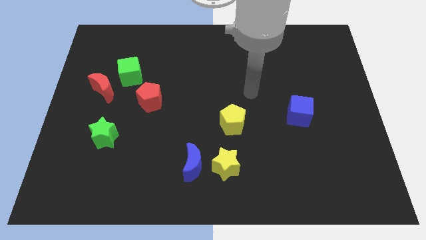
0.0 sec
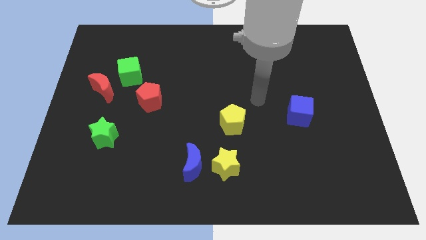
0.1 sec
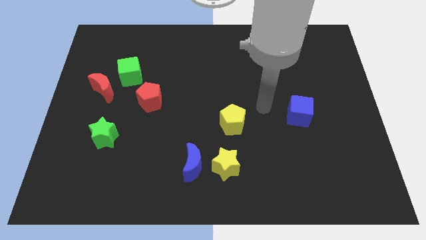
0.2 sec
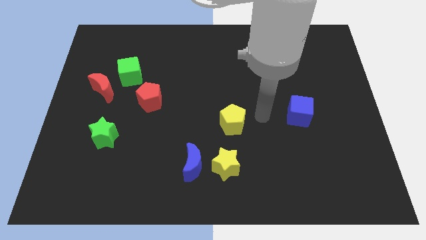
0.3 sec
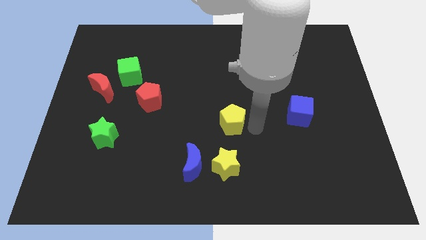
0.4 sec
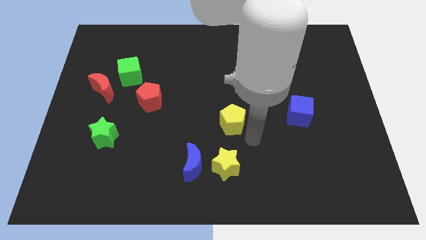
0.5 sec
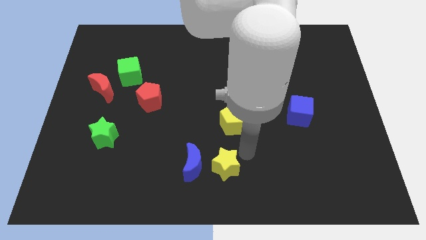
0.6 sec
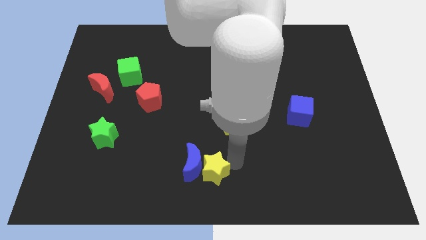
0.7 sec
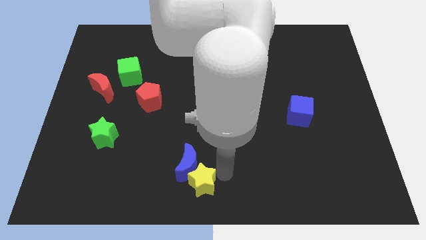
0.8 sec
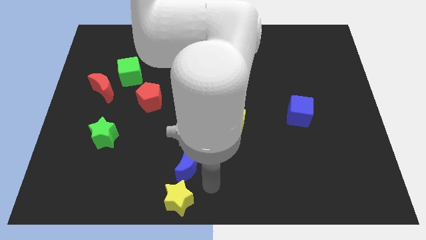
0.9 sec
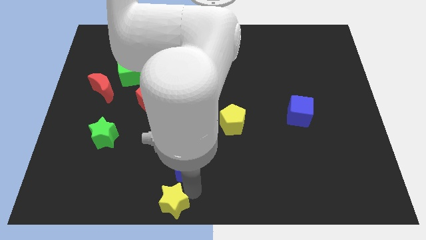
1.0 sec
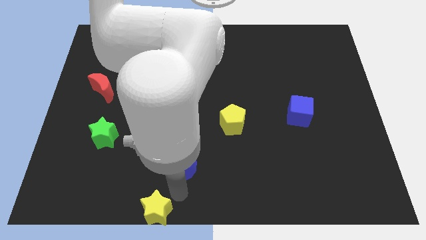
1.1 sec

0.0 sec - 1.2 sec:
separate the blue moon from the yellow star

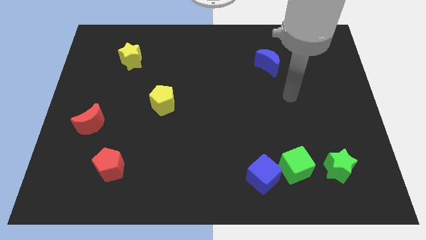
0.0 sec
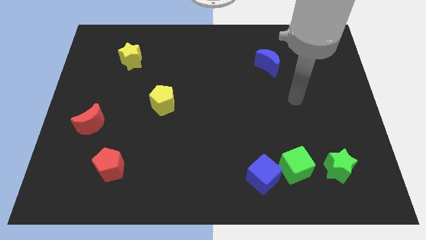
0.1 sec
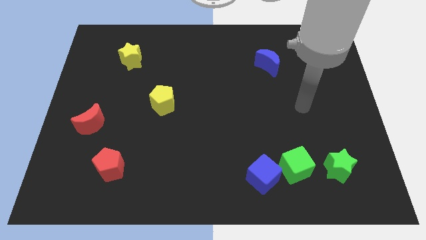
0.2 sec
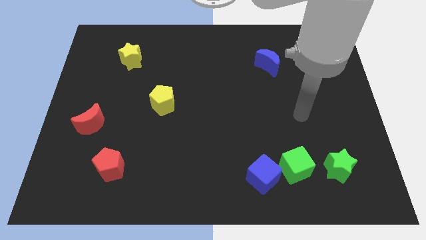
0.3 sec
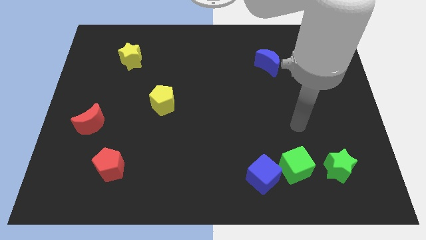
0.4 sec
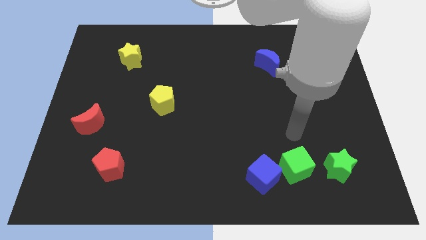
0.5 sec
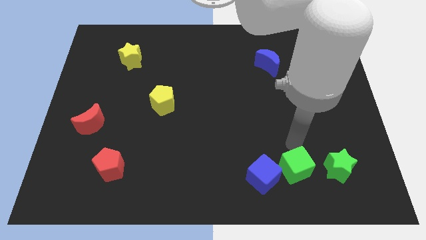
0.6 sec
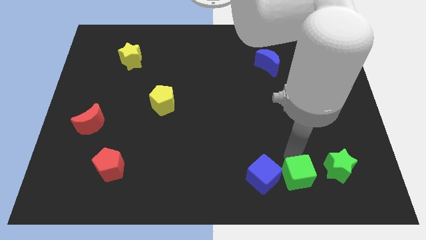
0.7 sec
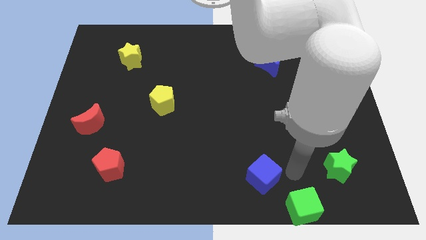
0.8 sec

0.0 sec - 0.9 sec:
pull the blue cube apart from the green cube

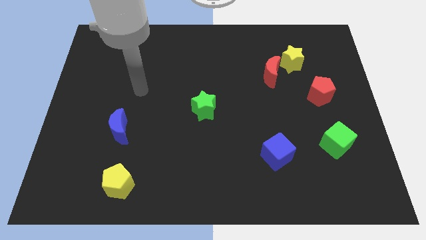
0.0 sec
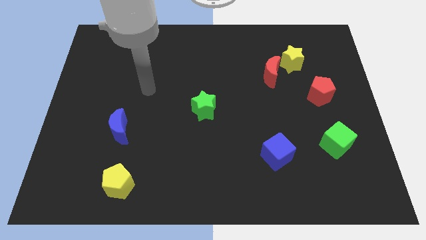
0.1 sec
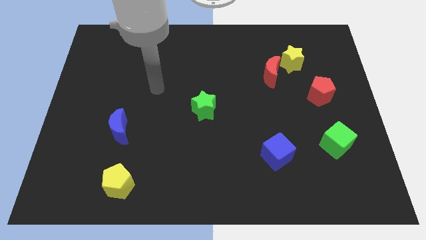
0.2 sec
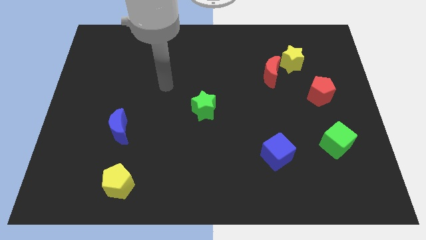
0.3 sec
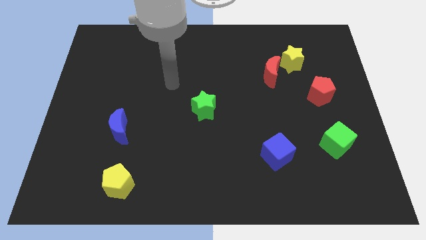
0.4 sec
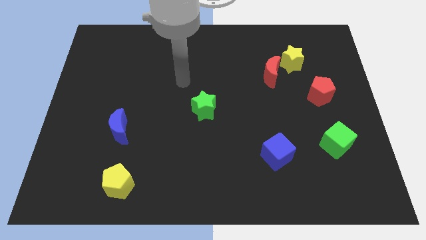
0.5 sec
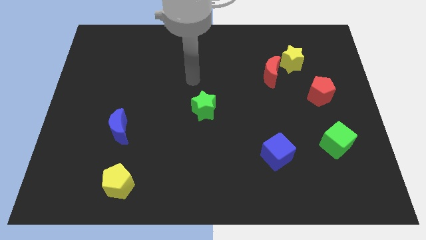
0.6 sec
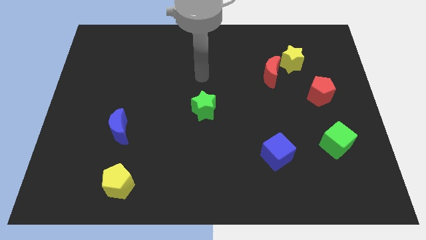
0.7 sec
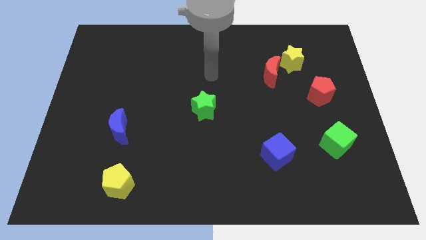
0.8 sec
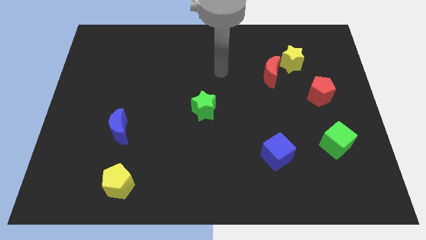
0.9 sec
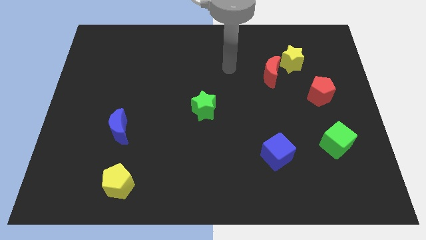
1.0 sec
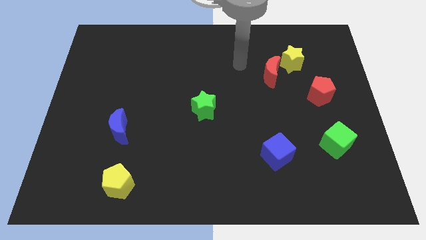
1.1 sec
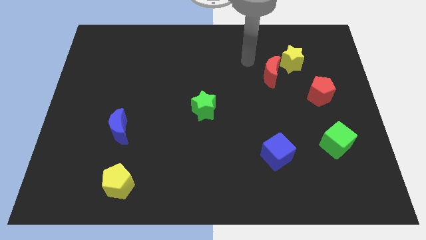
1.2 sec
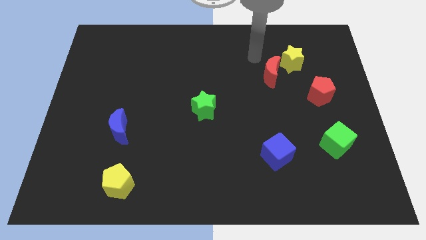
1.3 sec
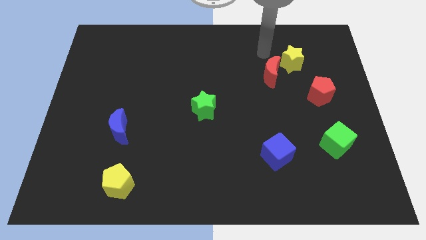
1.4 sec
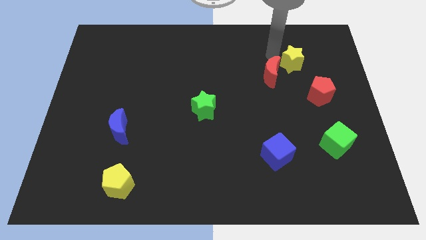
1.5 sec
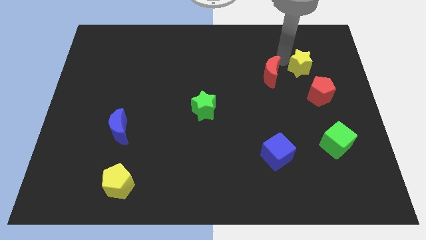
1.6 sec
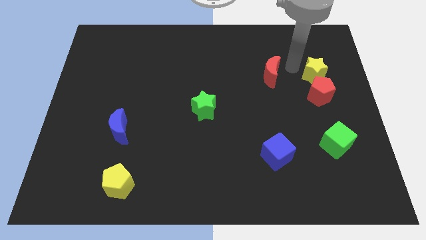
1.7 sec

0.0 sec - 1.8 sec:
pull the red moon apart from the yellow star

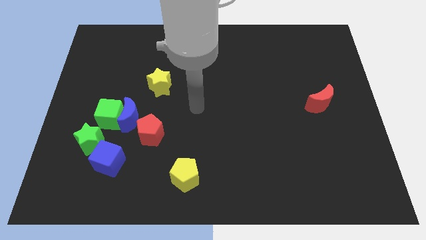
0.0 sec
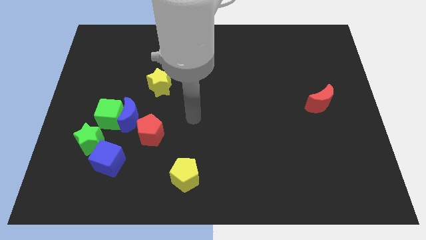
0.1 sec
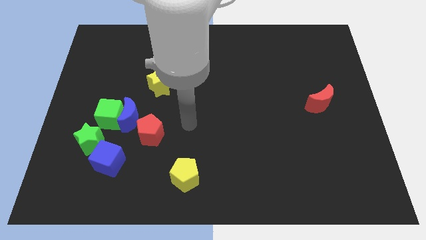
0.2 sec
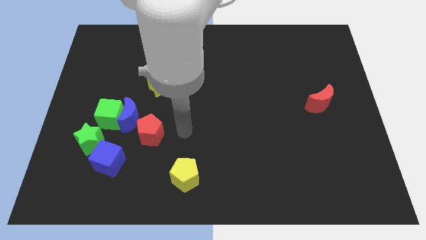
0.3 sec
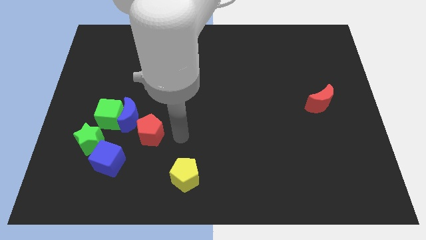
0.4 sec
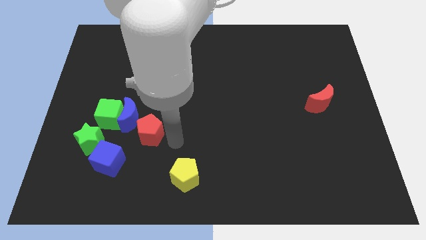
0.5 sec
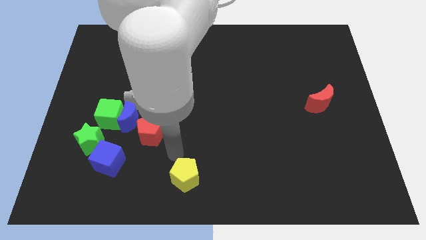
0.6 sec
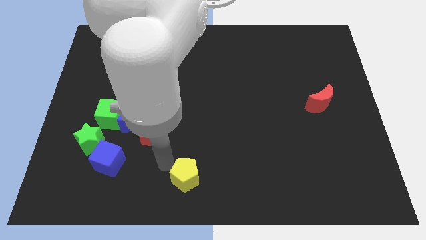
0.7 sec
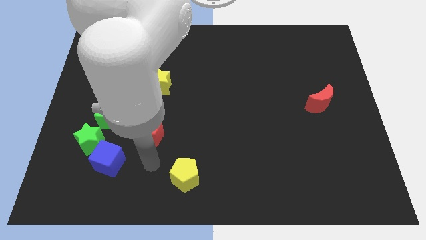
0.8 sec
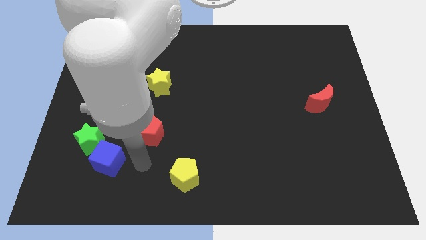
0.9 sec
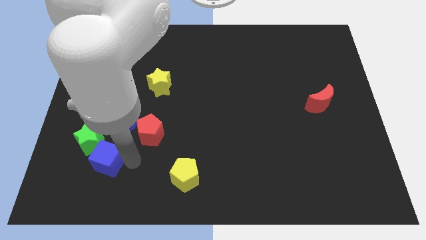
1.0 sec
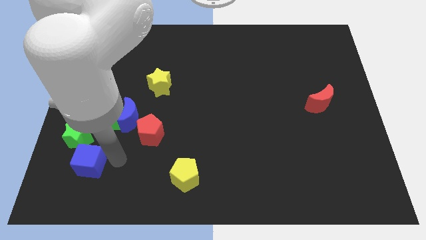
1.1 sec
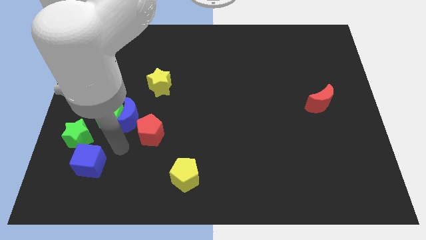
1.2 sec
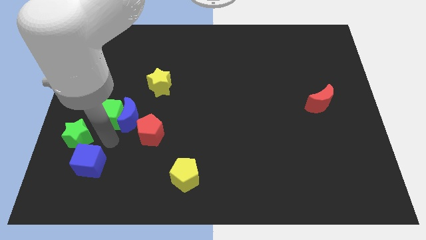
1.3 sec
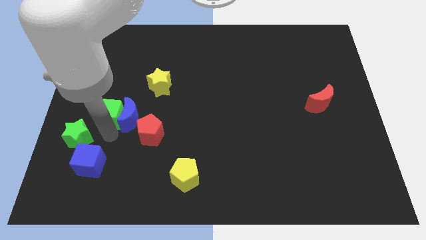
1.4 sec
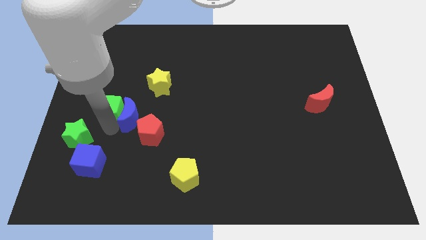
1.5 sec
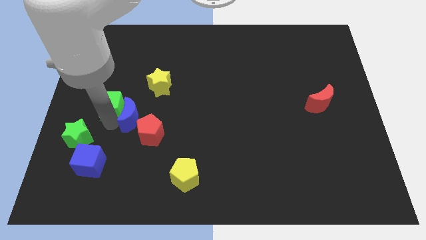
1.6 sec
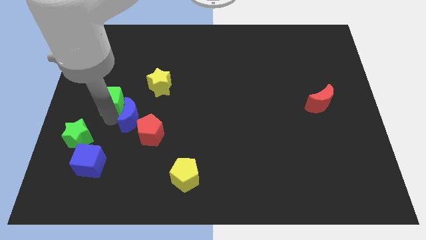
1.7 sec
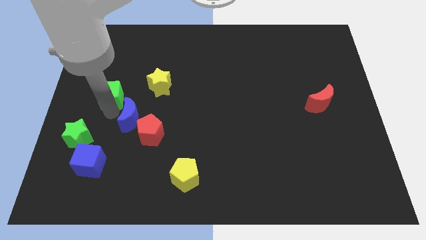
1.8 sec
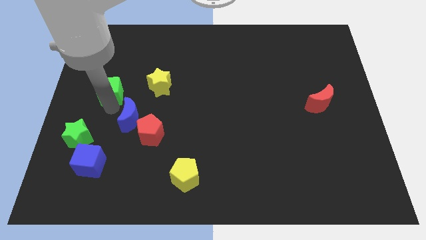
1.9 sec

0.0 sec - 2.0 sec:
move the green cube away from the blue moon and green star

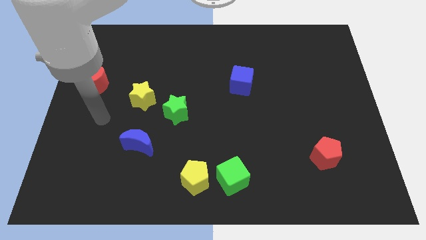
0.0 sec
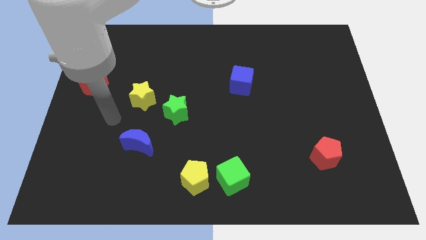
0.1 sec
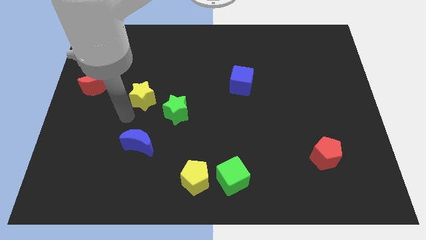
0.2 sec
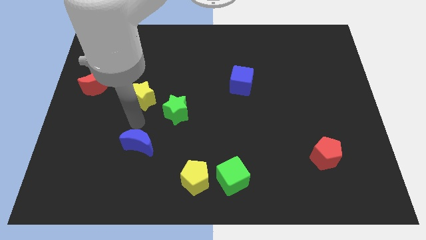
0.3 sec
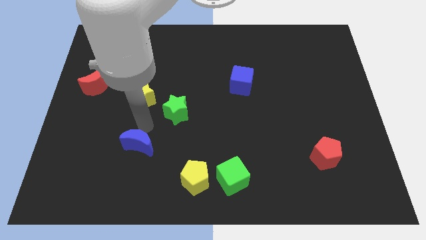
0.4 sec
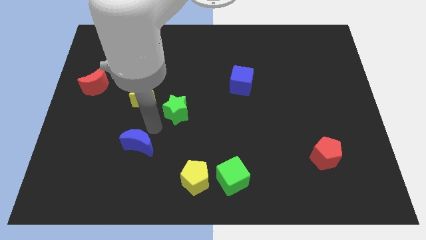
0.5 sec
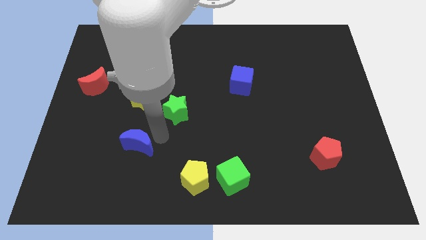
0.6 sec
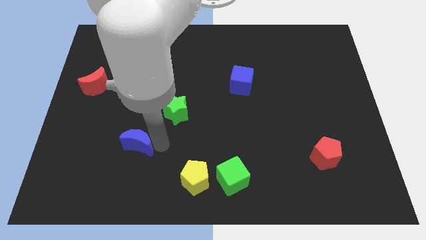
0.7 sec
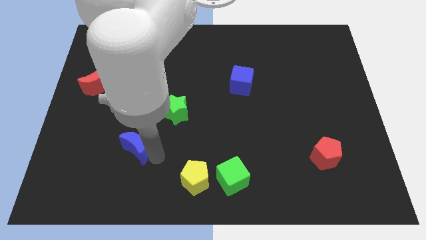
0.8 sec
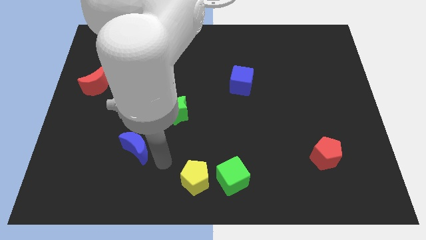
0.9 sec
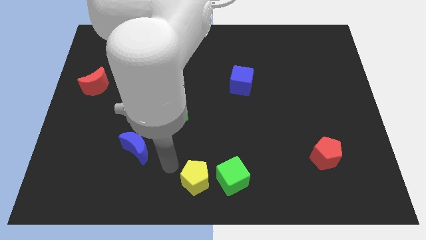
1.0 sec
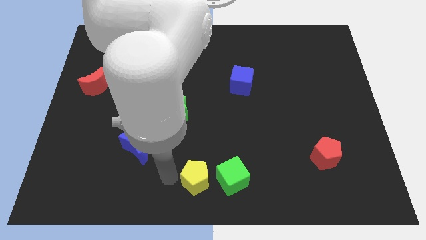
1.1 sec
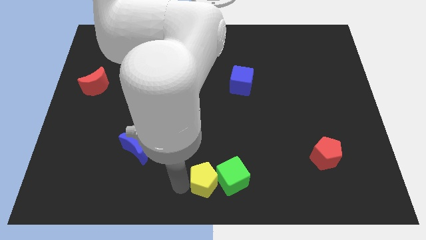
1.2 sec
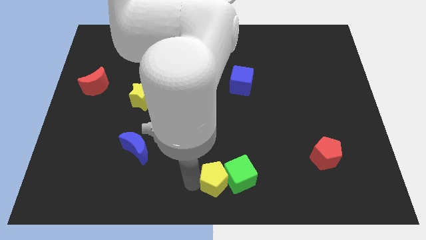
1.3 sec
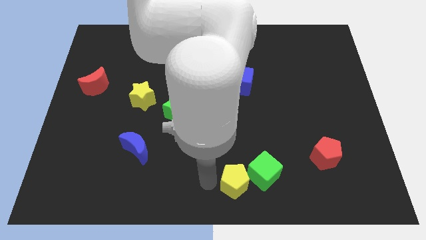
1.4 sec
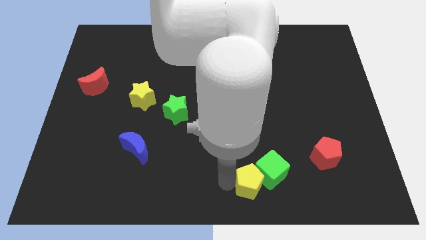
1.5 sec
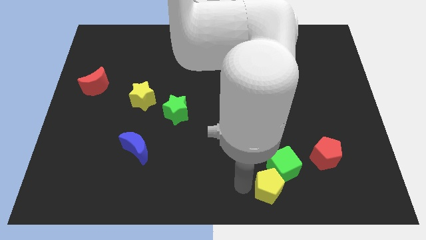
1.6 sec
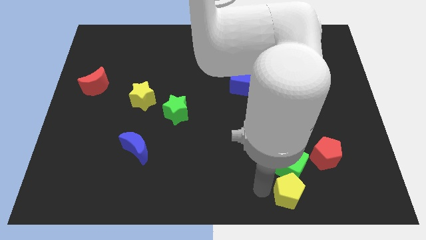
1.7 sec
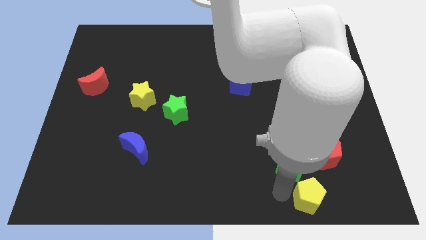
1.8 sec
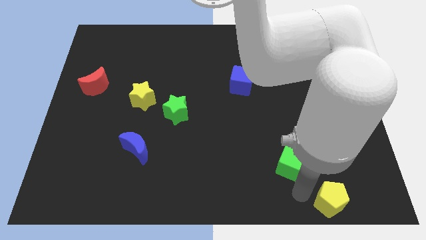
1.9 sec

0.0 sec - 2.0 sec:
move the green cube away from the yellow pentagon

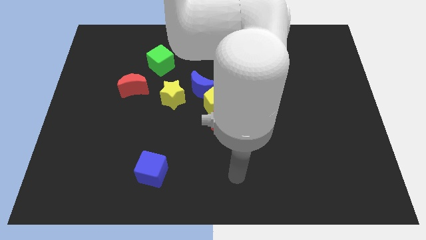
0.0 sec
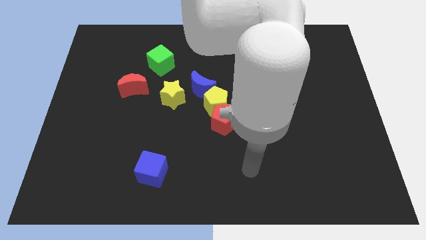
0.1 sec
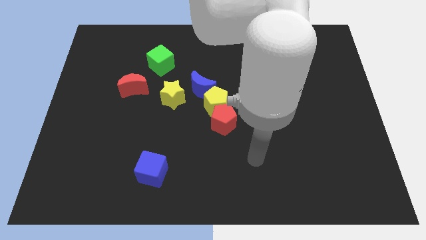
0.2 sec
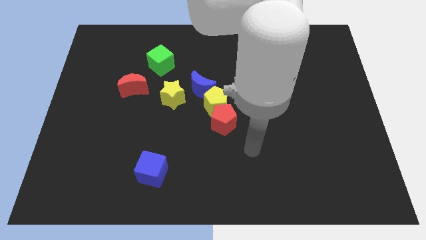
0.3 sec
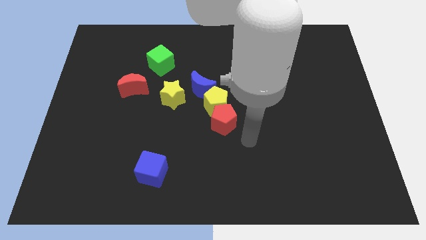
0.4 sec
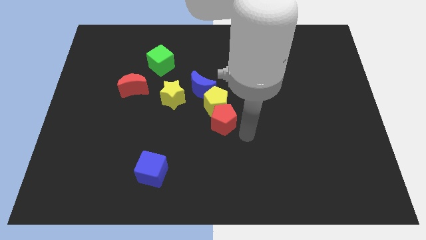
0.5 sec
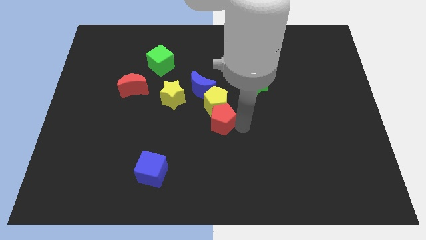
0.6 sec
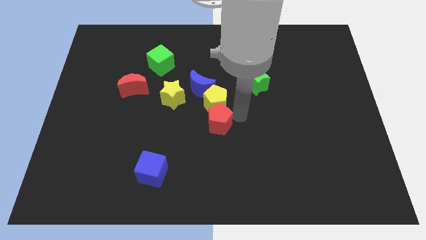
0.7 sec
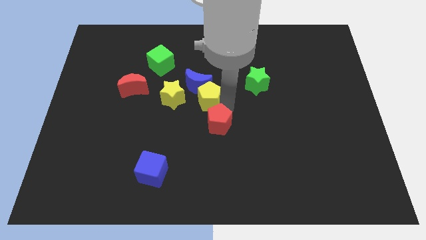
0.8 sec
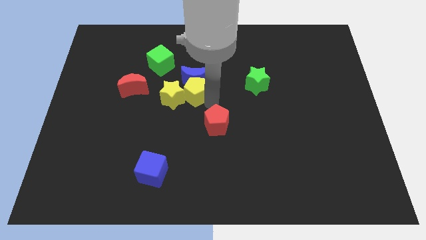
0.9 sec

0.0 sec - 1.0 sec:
move the red pentagon away from the yellow pentagon

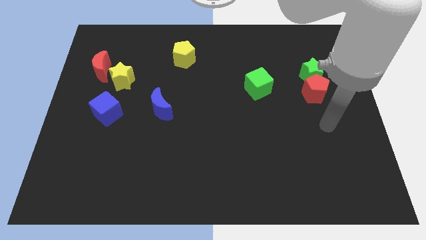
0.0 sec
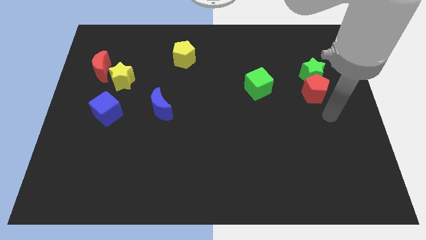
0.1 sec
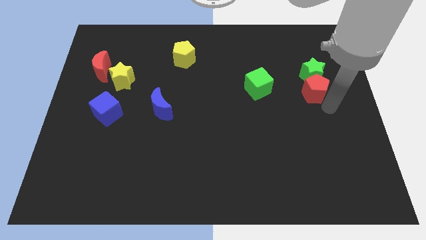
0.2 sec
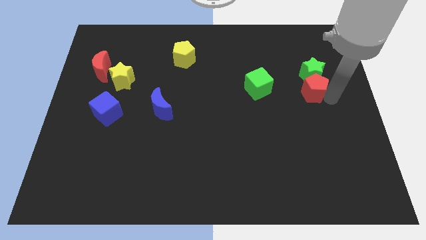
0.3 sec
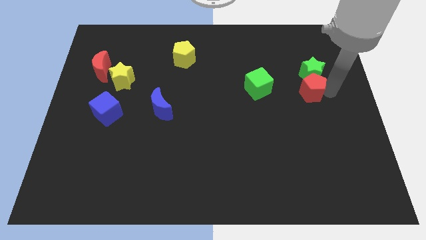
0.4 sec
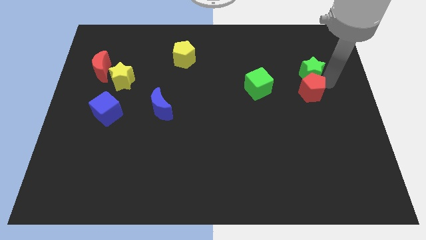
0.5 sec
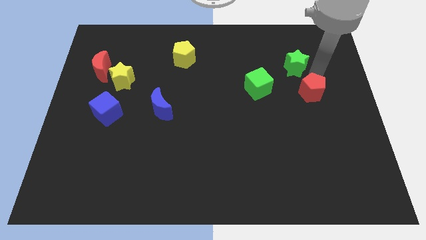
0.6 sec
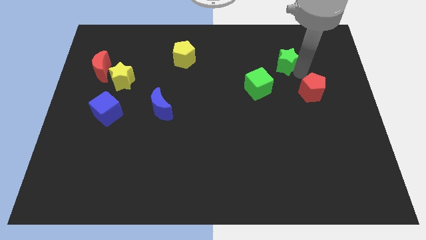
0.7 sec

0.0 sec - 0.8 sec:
pull the red pentagon apart from the green star
